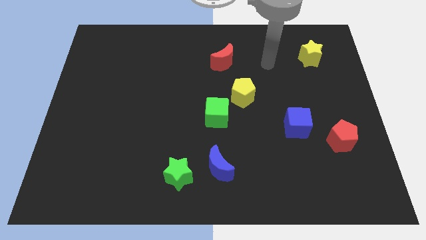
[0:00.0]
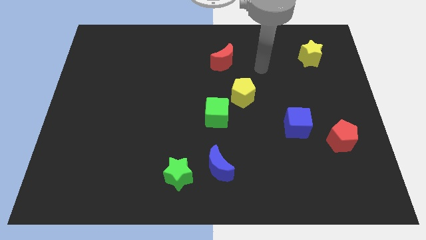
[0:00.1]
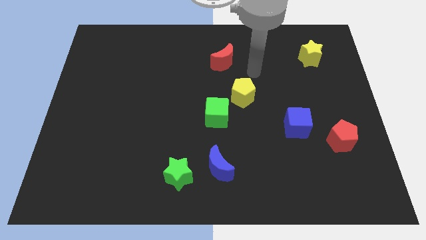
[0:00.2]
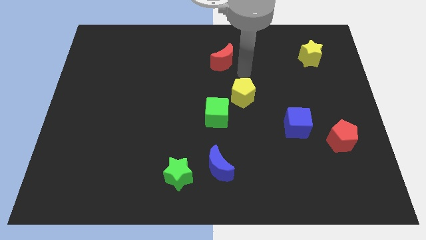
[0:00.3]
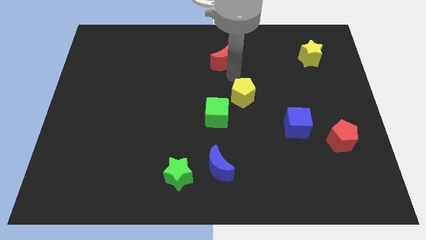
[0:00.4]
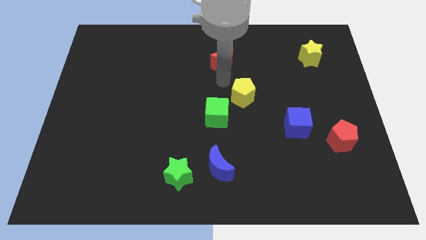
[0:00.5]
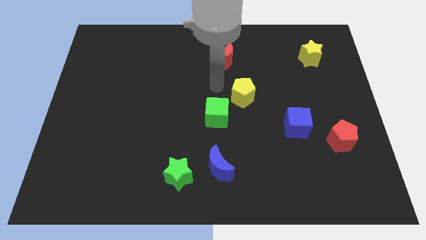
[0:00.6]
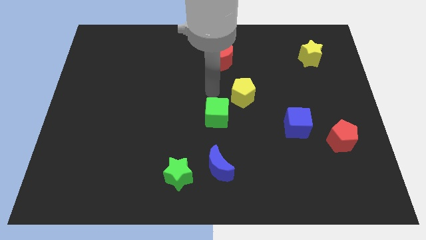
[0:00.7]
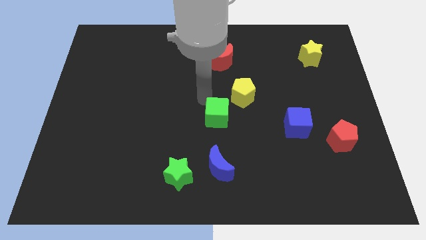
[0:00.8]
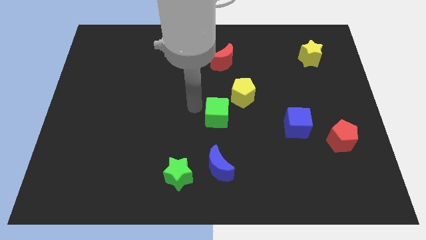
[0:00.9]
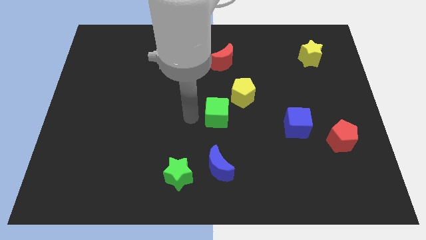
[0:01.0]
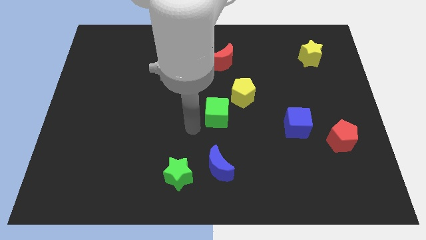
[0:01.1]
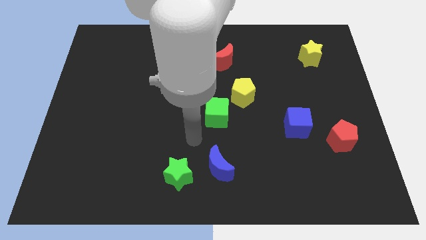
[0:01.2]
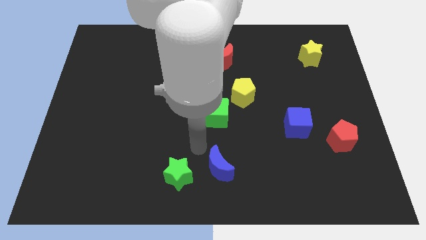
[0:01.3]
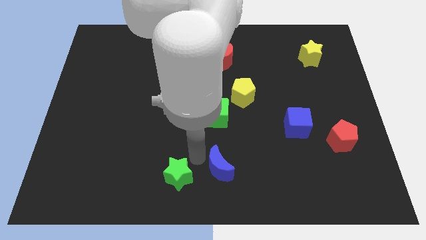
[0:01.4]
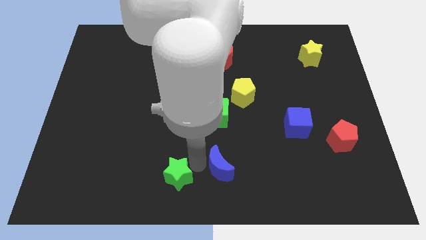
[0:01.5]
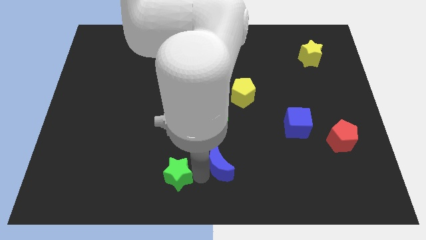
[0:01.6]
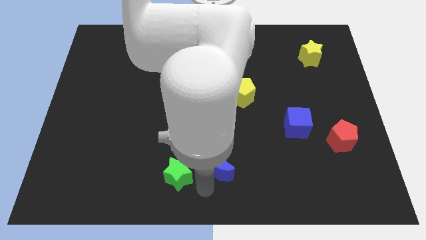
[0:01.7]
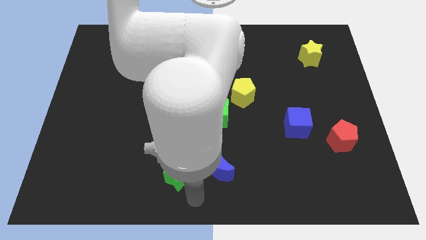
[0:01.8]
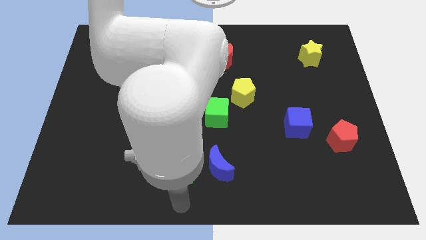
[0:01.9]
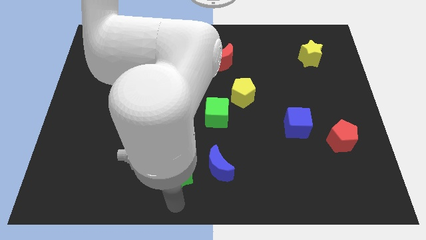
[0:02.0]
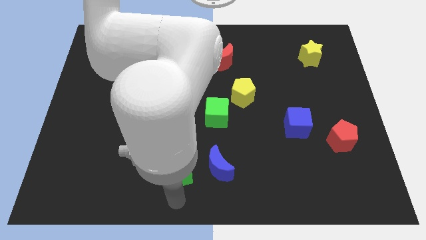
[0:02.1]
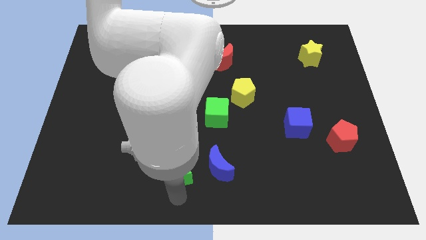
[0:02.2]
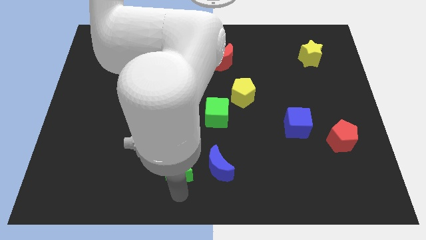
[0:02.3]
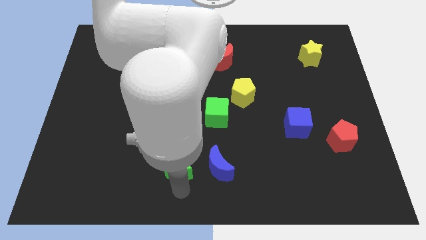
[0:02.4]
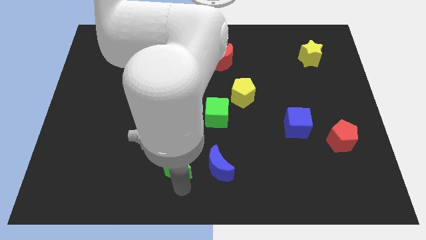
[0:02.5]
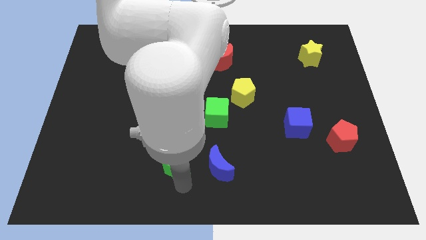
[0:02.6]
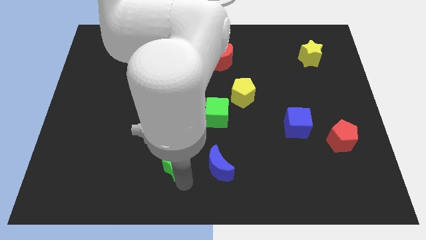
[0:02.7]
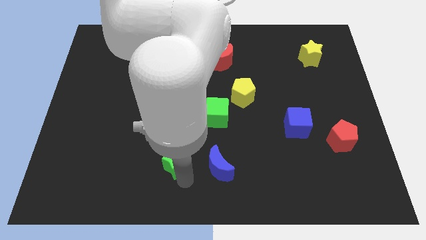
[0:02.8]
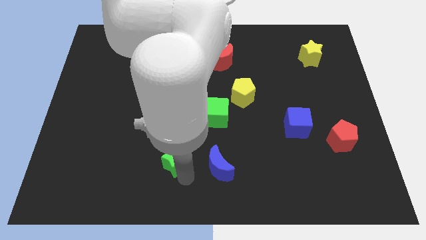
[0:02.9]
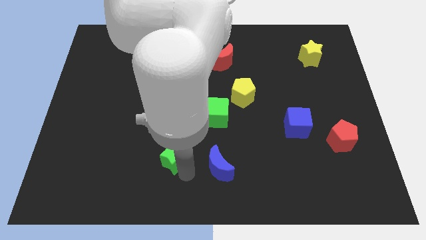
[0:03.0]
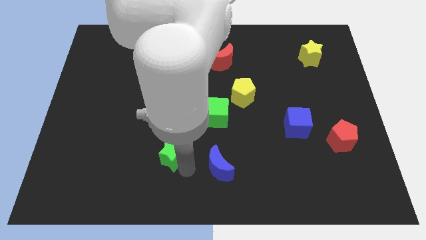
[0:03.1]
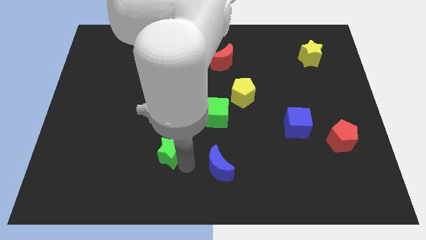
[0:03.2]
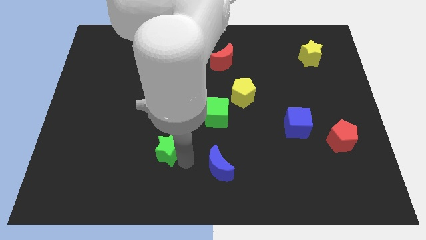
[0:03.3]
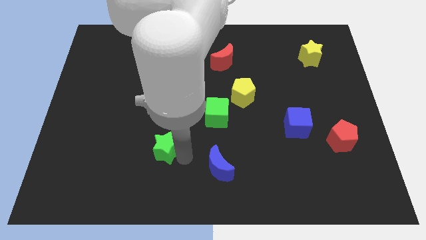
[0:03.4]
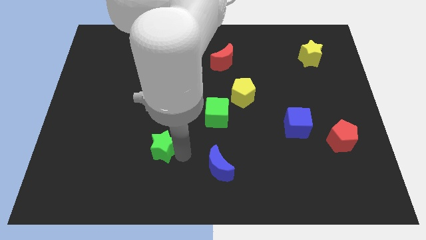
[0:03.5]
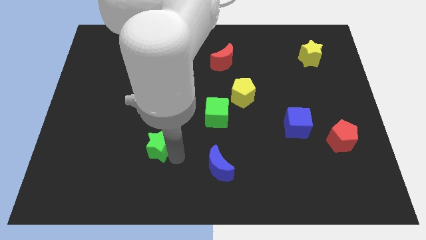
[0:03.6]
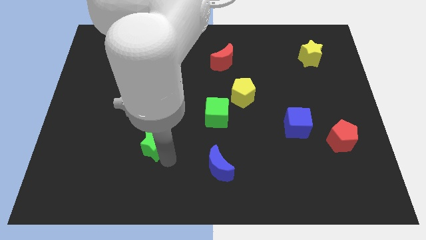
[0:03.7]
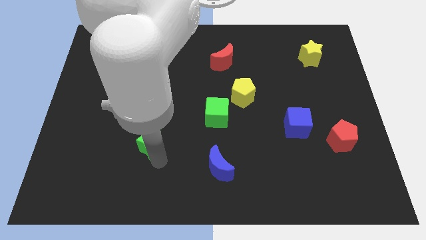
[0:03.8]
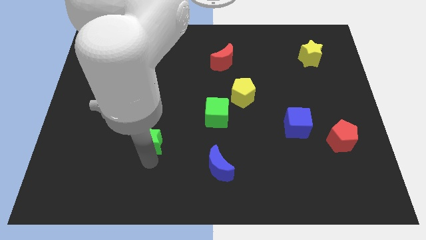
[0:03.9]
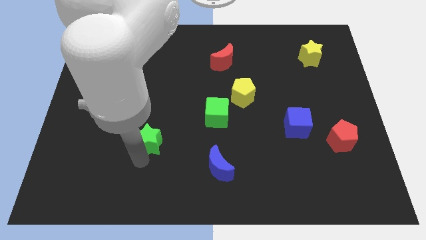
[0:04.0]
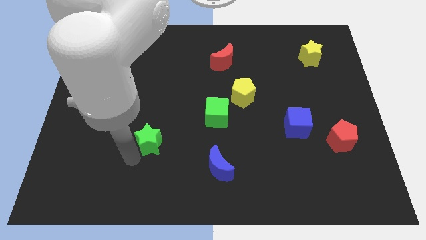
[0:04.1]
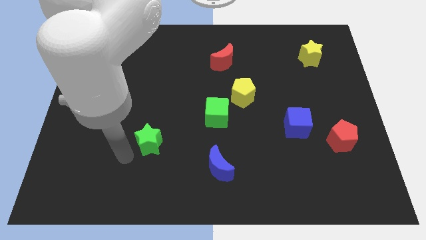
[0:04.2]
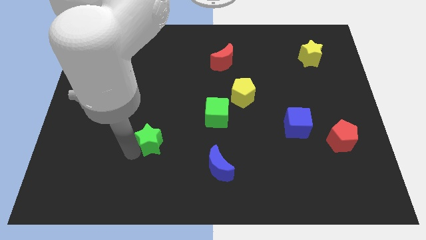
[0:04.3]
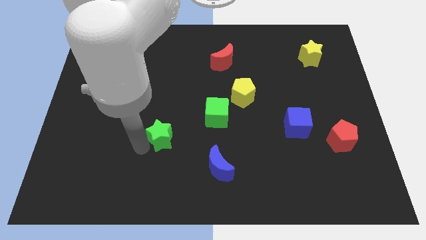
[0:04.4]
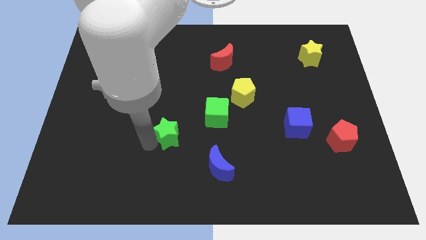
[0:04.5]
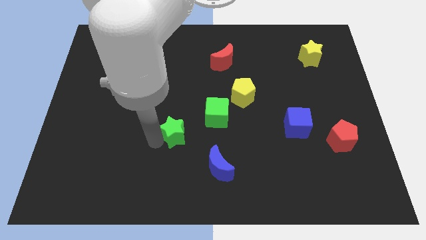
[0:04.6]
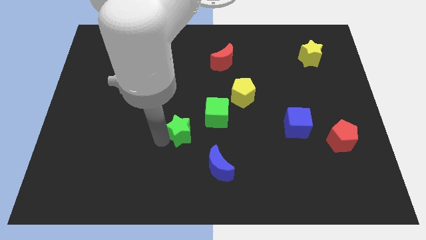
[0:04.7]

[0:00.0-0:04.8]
push the green star to the center of the board

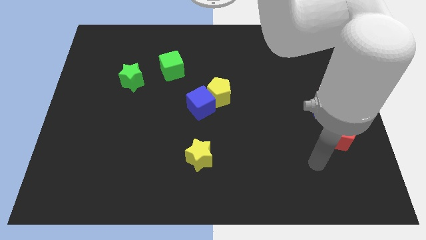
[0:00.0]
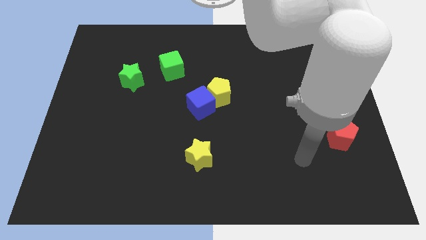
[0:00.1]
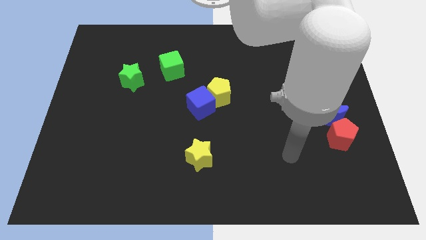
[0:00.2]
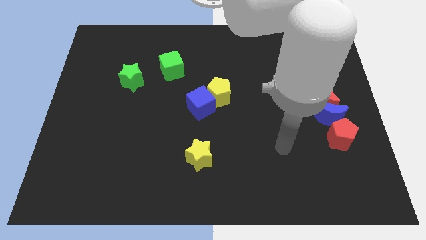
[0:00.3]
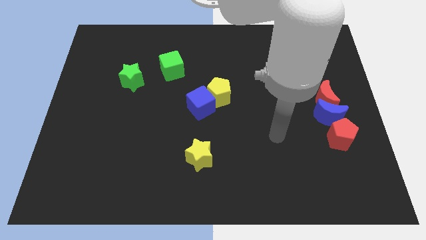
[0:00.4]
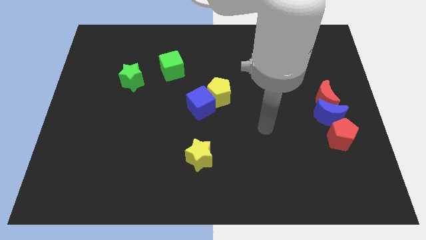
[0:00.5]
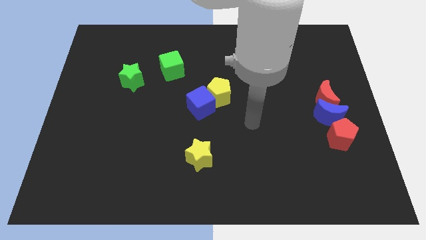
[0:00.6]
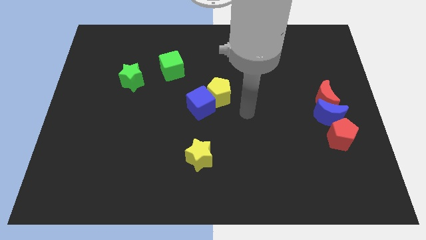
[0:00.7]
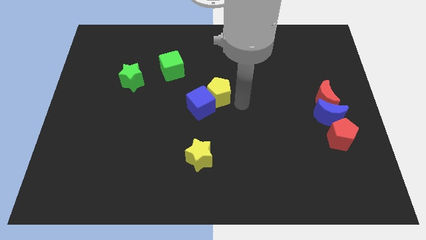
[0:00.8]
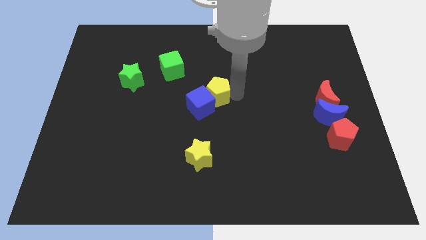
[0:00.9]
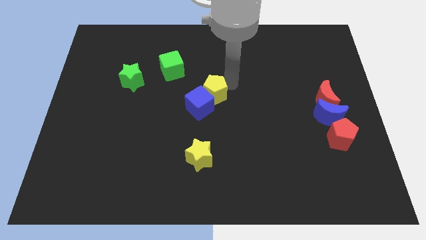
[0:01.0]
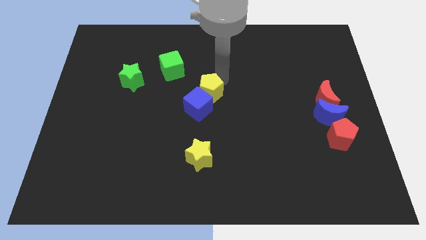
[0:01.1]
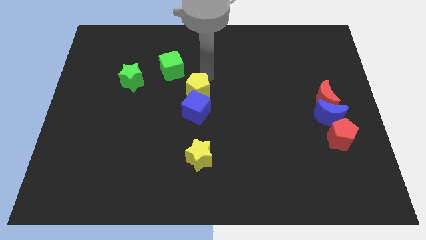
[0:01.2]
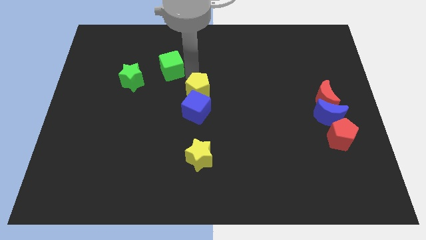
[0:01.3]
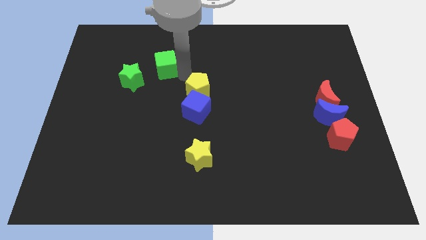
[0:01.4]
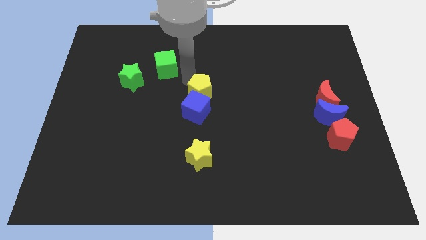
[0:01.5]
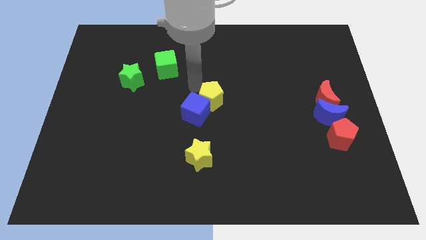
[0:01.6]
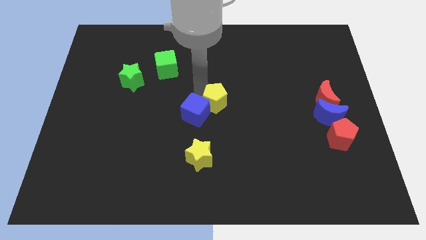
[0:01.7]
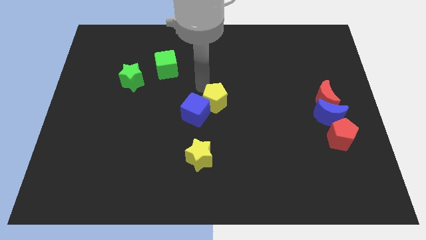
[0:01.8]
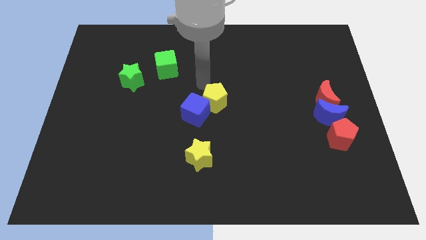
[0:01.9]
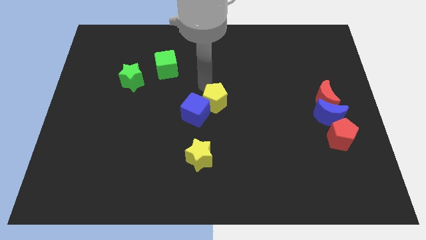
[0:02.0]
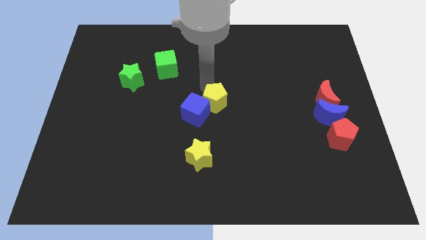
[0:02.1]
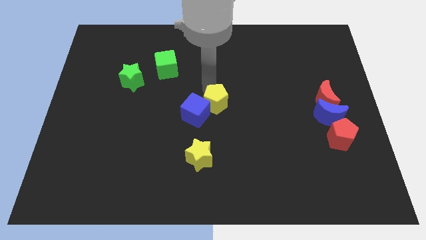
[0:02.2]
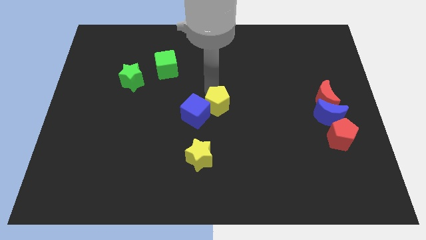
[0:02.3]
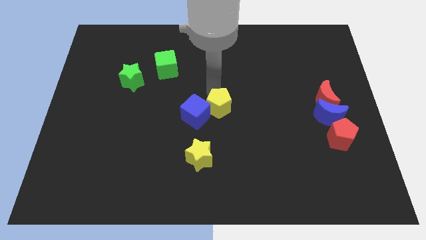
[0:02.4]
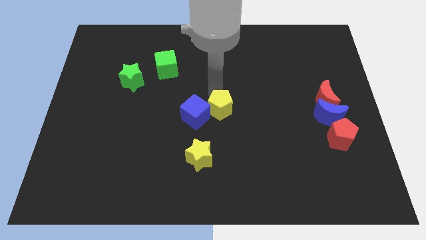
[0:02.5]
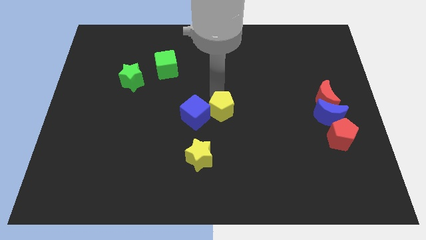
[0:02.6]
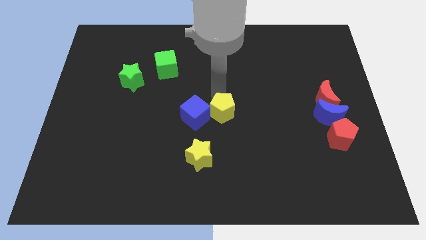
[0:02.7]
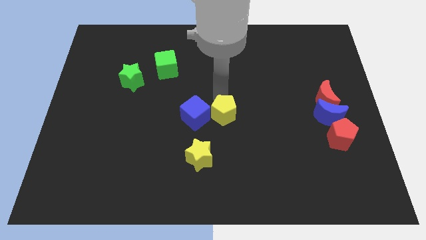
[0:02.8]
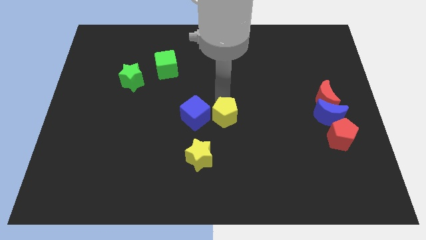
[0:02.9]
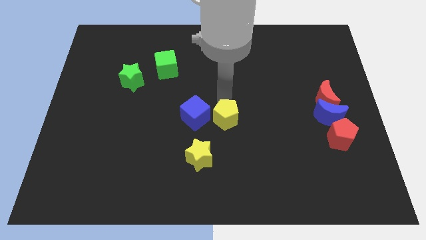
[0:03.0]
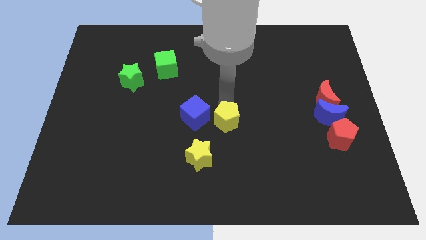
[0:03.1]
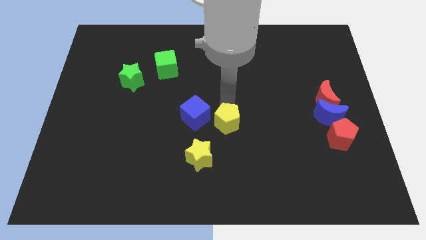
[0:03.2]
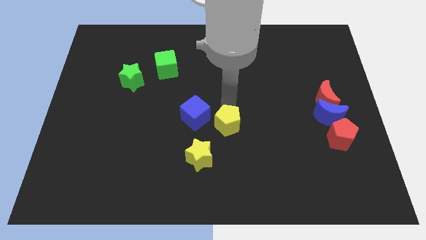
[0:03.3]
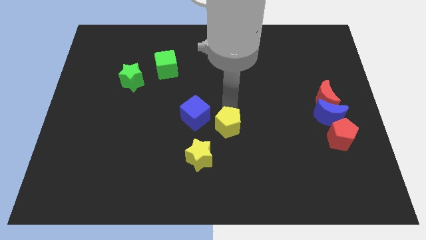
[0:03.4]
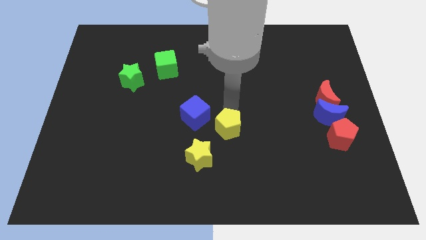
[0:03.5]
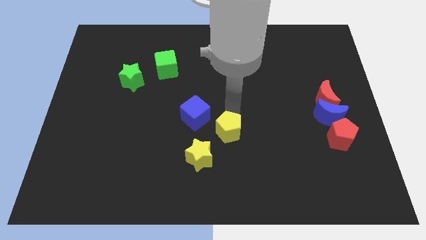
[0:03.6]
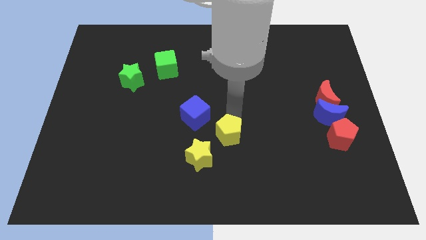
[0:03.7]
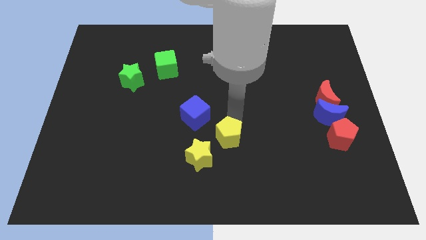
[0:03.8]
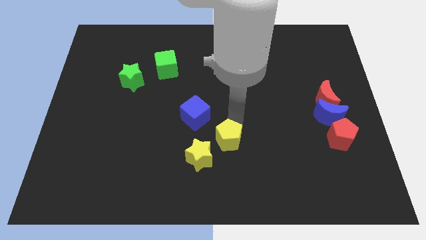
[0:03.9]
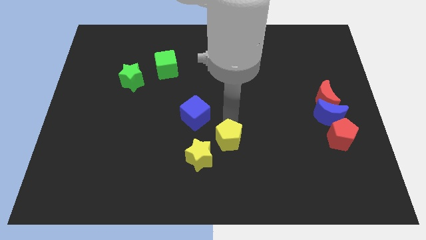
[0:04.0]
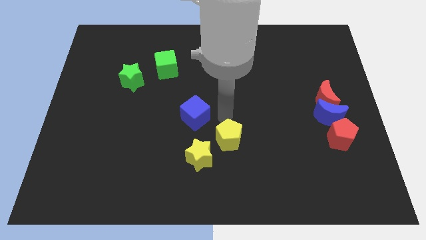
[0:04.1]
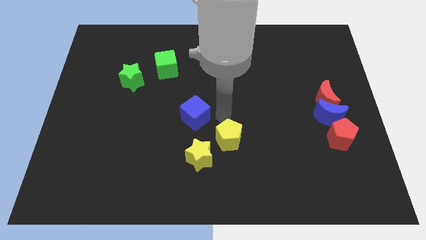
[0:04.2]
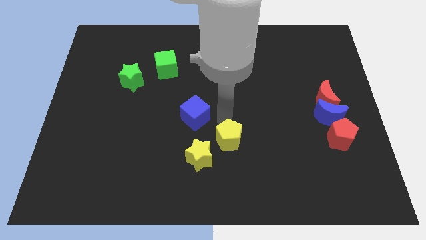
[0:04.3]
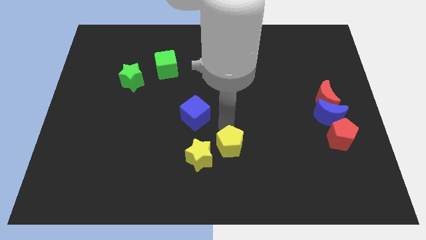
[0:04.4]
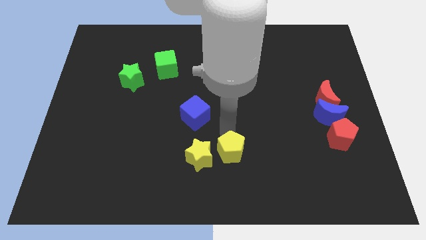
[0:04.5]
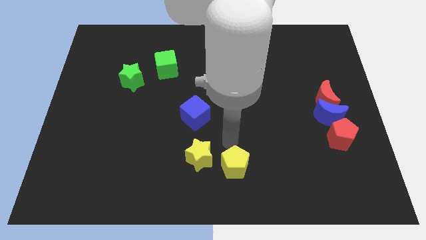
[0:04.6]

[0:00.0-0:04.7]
move the yellow pentagon to the bottom
